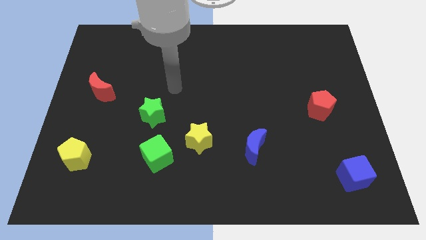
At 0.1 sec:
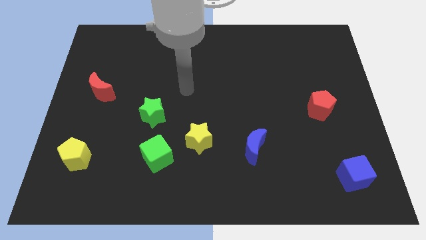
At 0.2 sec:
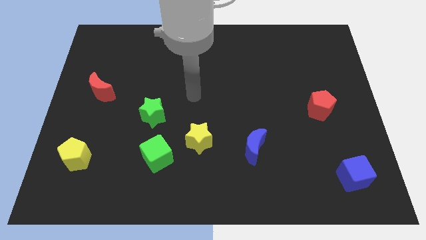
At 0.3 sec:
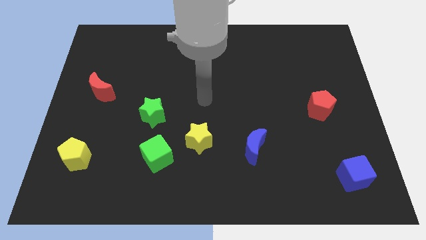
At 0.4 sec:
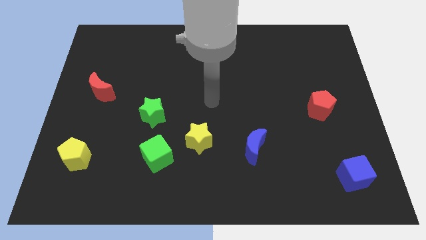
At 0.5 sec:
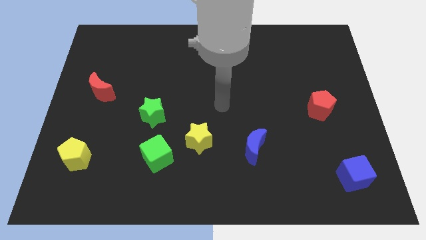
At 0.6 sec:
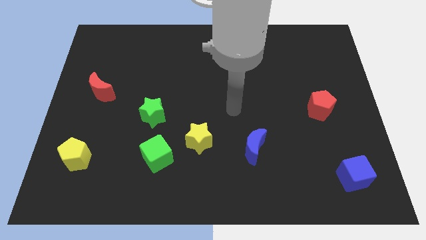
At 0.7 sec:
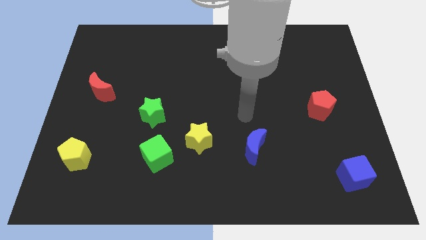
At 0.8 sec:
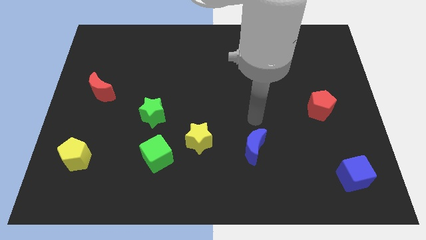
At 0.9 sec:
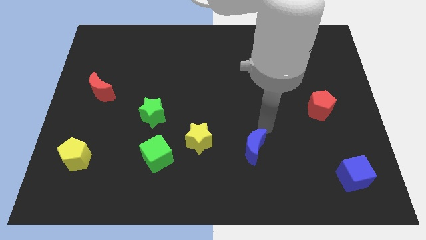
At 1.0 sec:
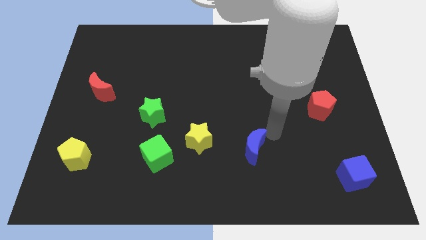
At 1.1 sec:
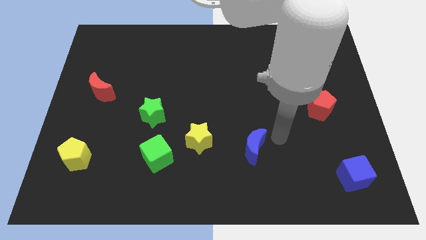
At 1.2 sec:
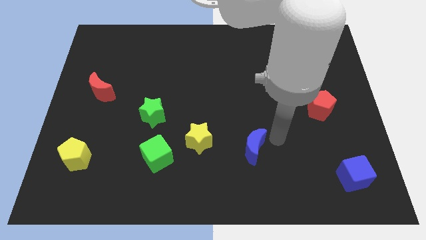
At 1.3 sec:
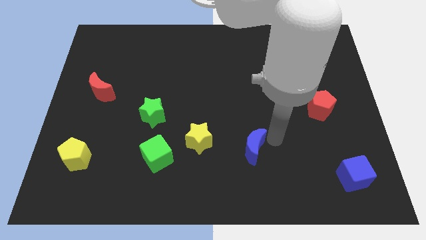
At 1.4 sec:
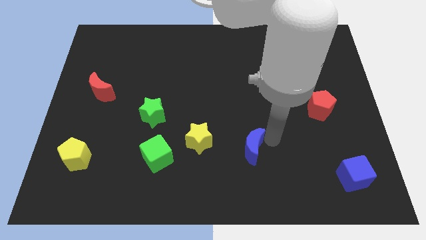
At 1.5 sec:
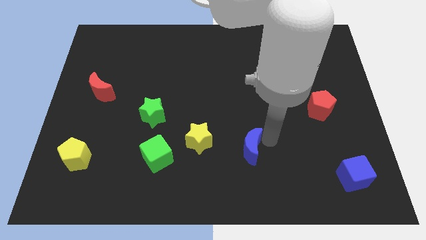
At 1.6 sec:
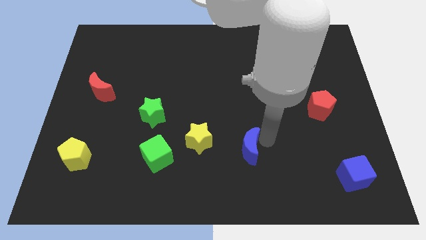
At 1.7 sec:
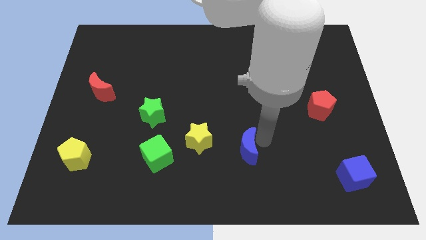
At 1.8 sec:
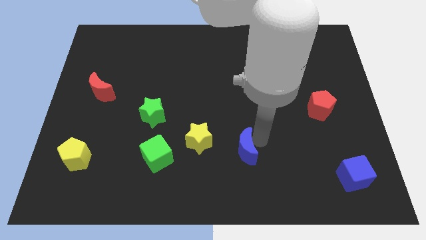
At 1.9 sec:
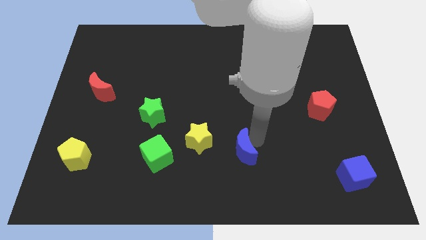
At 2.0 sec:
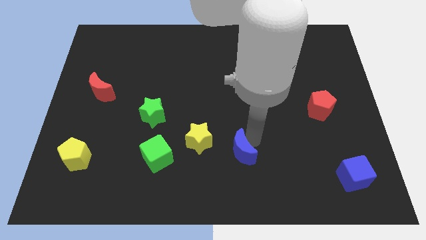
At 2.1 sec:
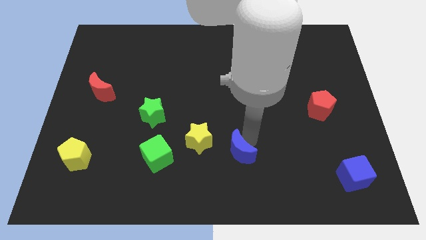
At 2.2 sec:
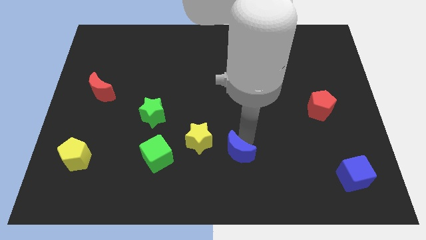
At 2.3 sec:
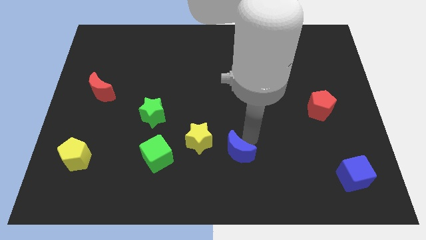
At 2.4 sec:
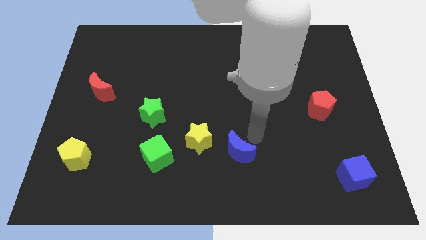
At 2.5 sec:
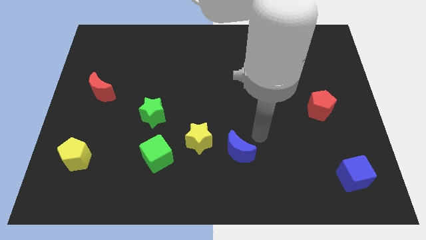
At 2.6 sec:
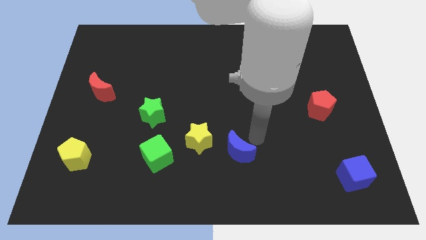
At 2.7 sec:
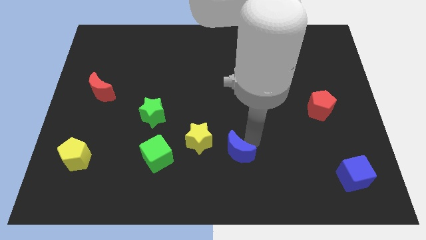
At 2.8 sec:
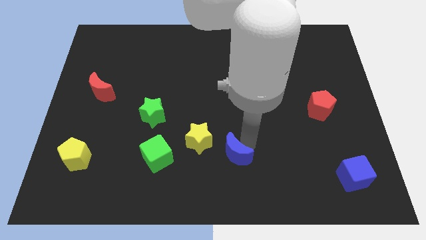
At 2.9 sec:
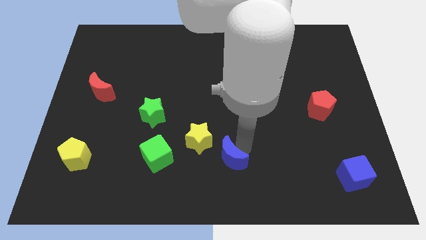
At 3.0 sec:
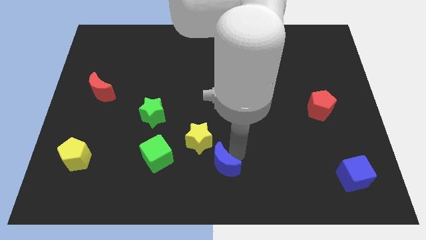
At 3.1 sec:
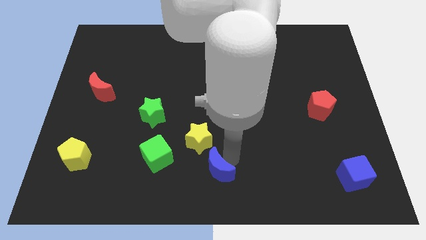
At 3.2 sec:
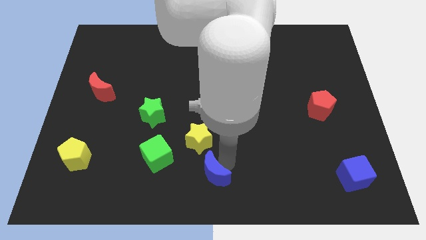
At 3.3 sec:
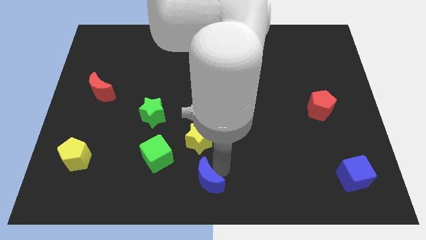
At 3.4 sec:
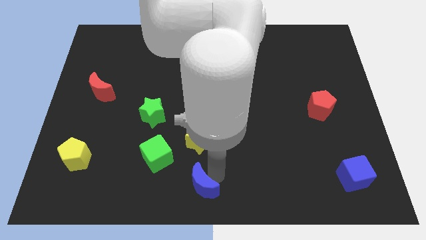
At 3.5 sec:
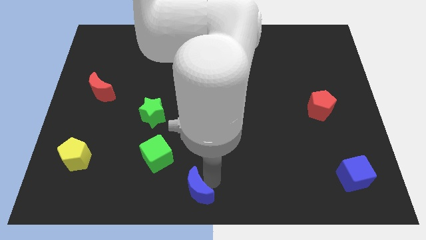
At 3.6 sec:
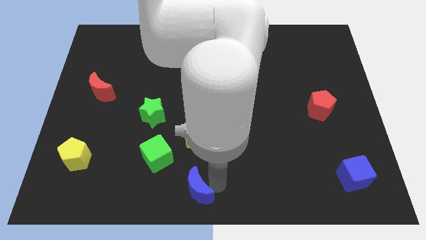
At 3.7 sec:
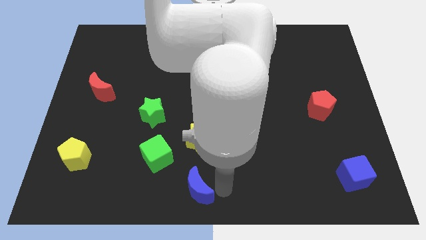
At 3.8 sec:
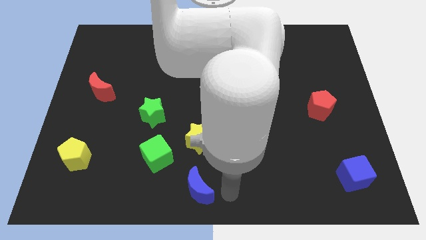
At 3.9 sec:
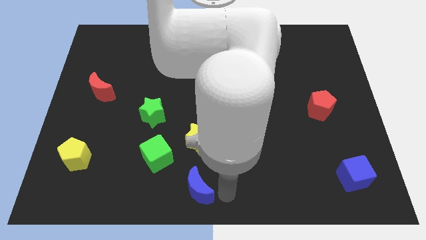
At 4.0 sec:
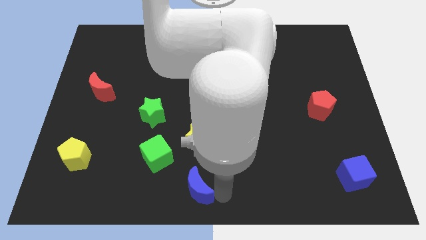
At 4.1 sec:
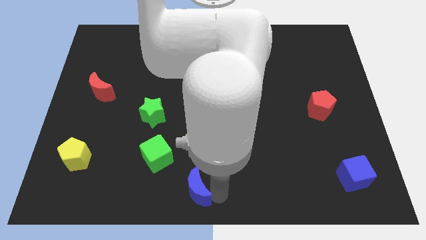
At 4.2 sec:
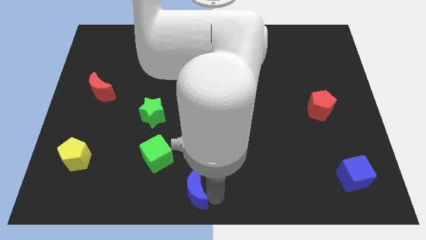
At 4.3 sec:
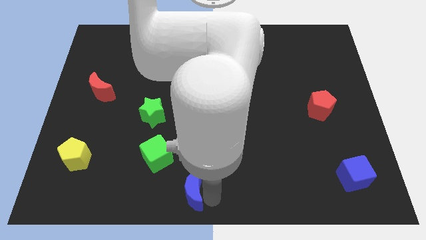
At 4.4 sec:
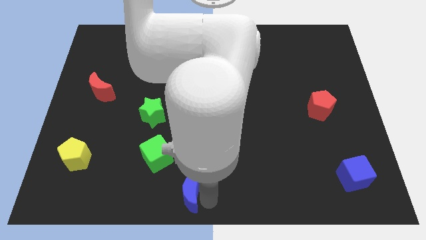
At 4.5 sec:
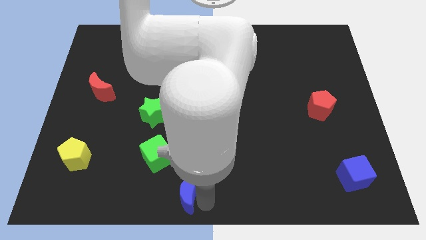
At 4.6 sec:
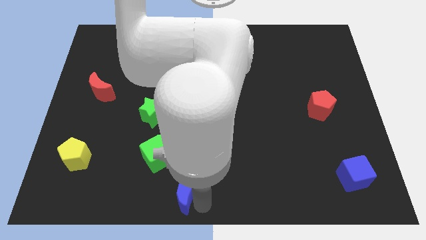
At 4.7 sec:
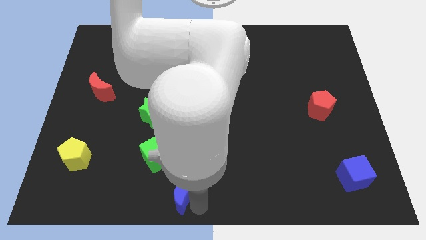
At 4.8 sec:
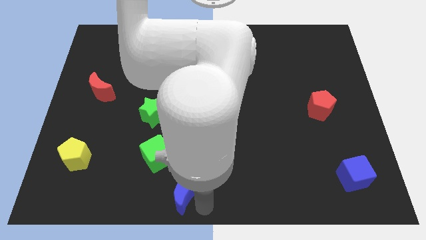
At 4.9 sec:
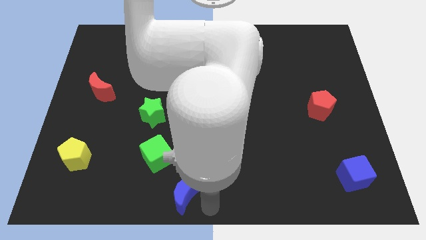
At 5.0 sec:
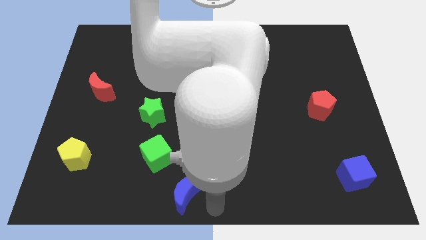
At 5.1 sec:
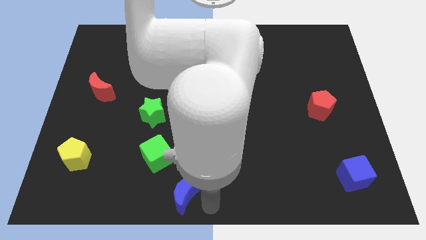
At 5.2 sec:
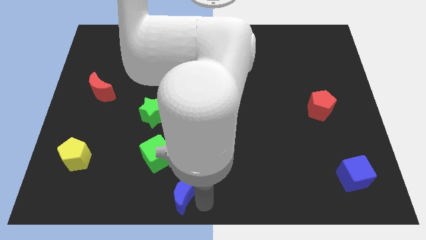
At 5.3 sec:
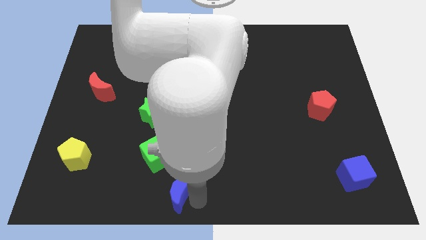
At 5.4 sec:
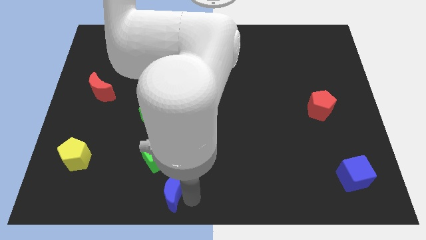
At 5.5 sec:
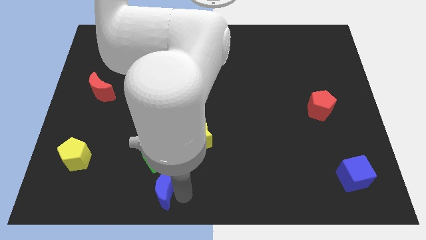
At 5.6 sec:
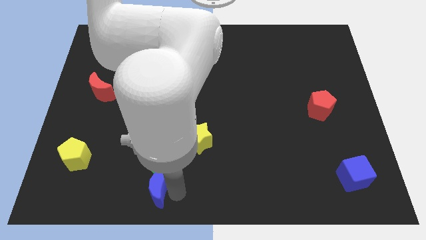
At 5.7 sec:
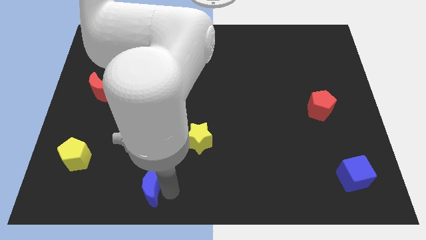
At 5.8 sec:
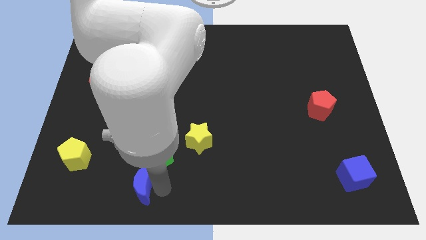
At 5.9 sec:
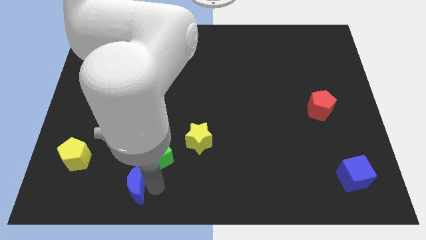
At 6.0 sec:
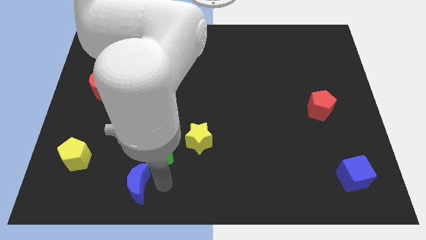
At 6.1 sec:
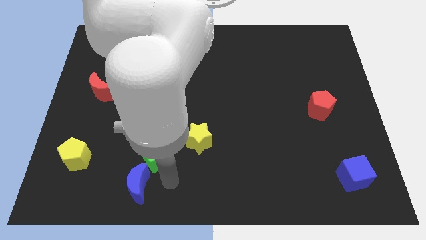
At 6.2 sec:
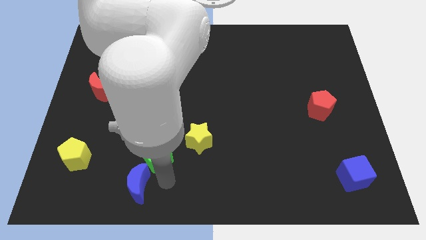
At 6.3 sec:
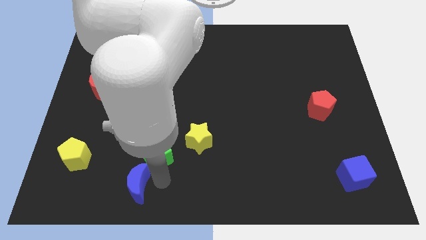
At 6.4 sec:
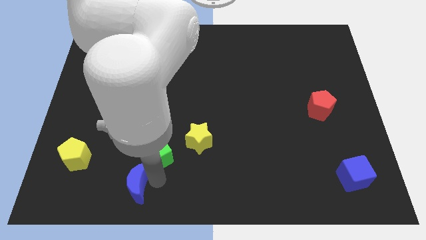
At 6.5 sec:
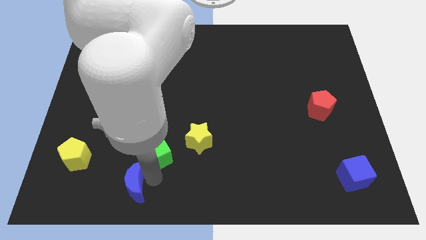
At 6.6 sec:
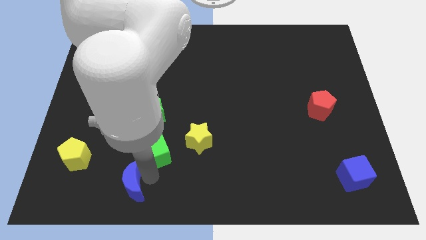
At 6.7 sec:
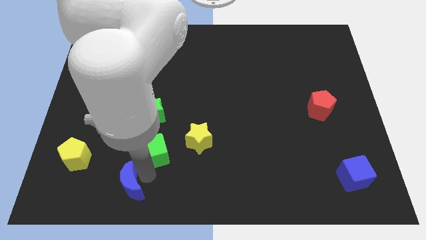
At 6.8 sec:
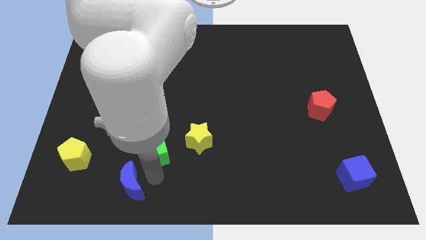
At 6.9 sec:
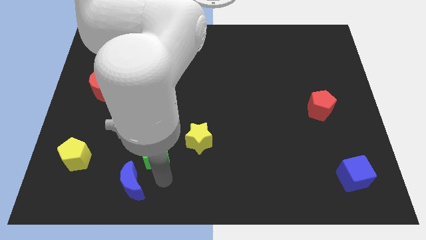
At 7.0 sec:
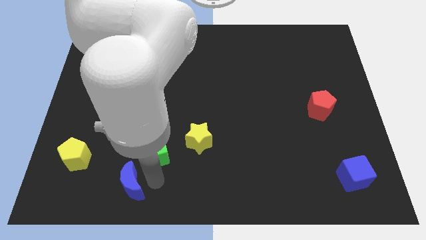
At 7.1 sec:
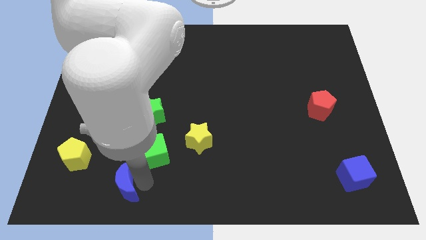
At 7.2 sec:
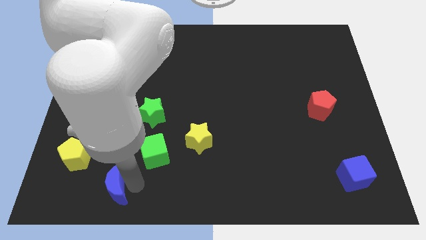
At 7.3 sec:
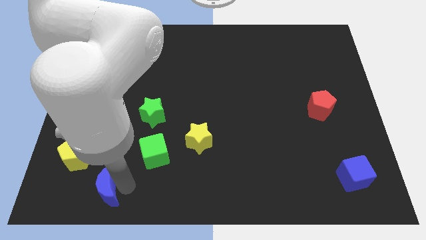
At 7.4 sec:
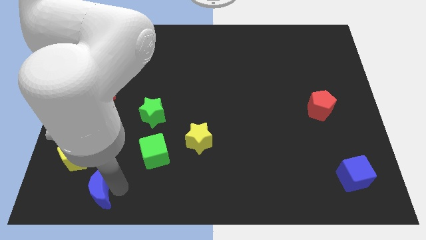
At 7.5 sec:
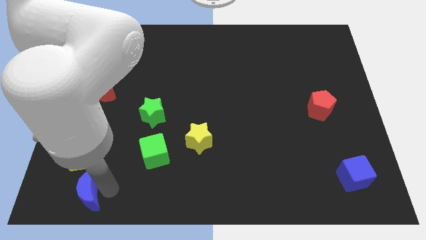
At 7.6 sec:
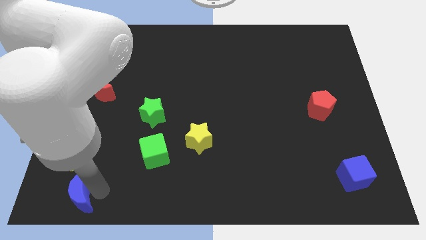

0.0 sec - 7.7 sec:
push the blue moon to the bottom left
